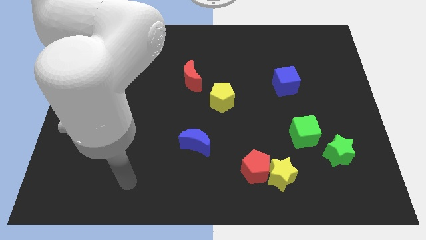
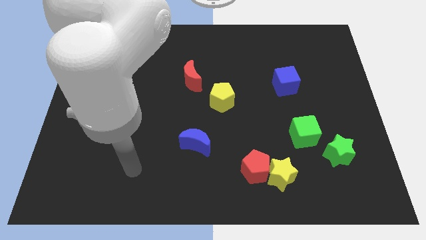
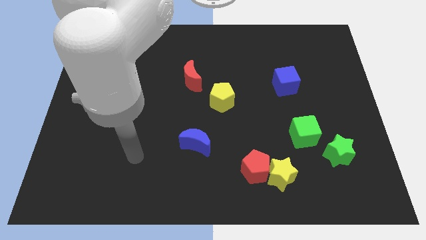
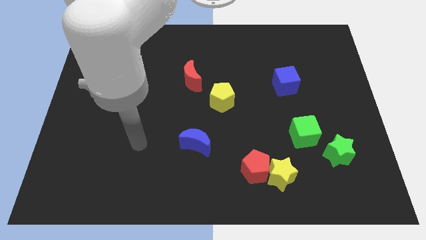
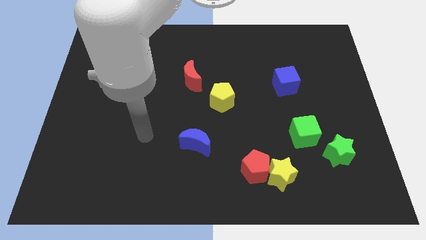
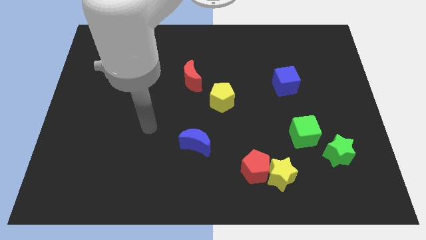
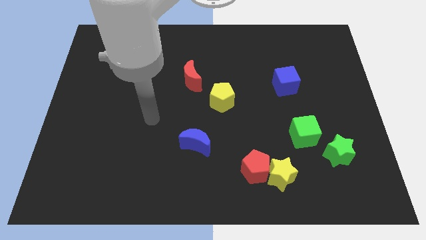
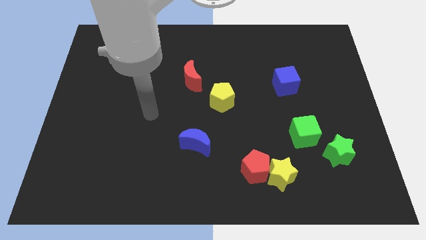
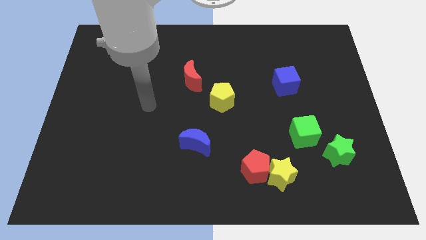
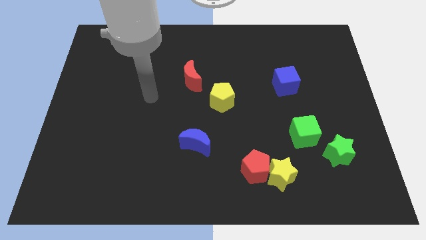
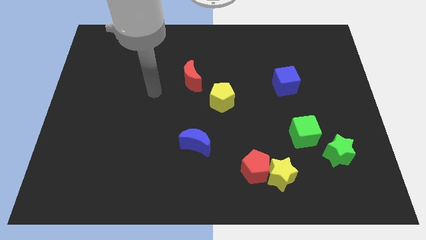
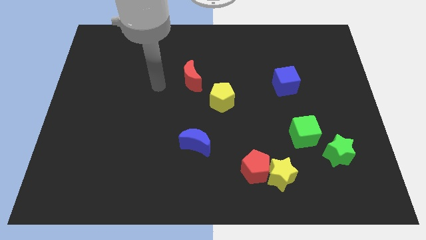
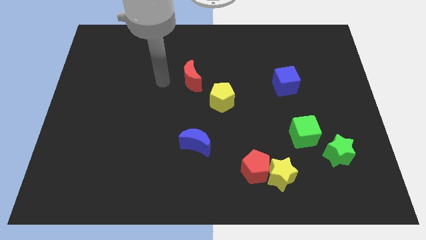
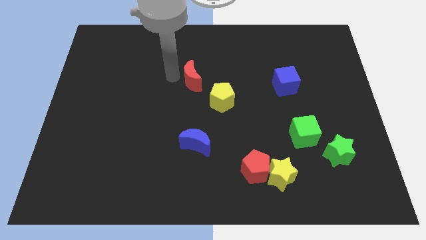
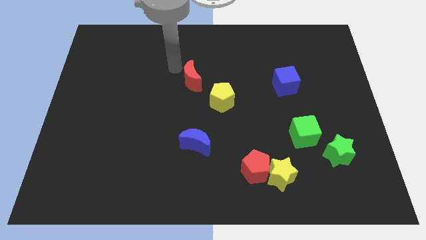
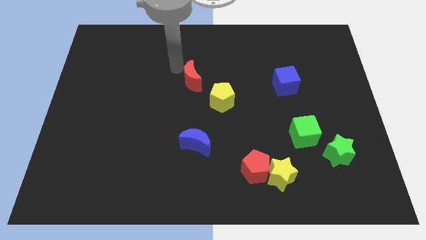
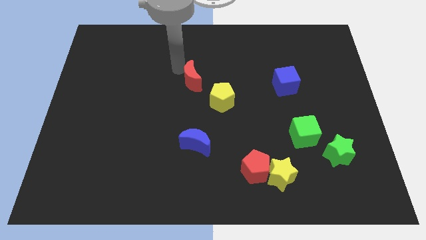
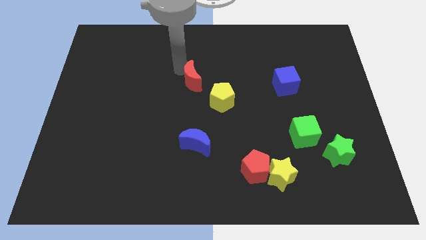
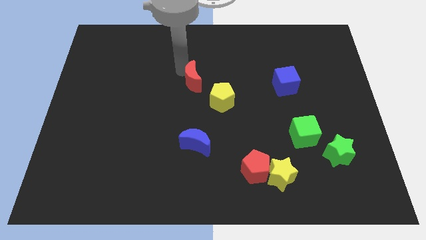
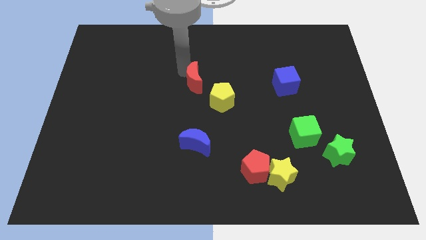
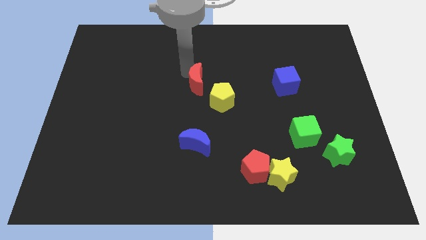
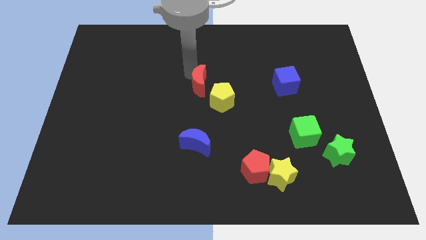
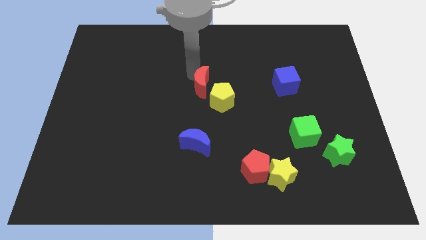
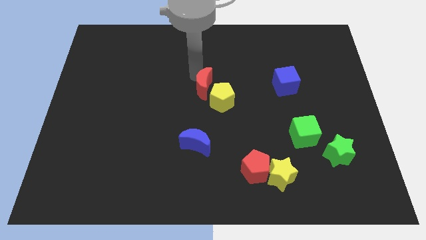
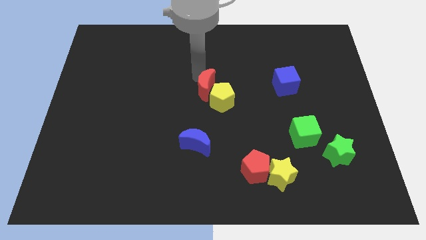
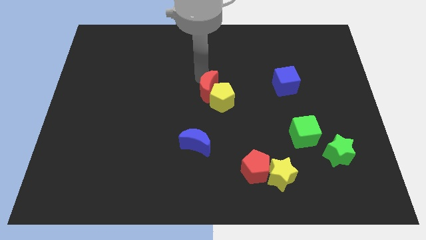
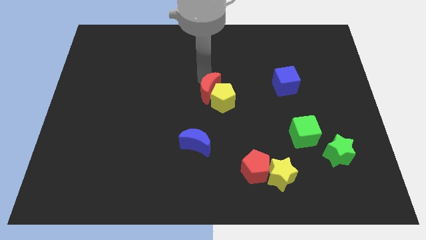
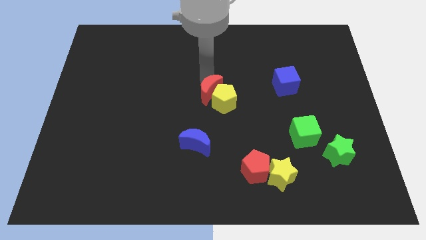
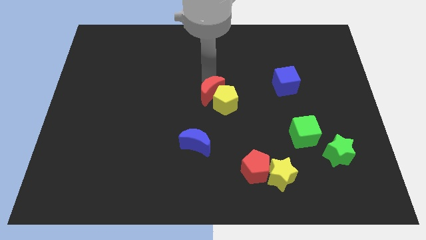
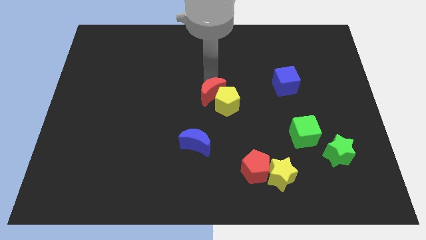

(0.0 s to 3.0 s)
push the red moon down and to the right diagonally somewhat

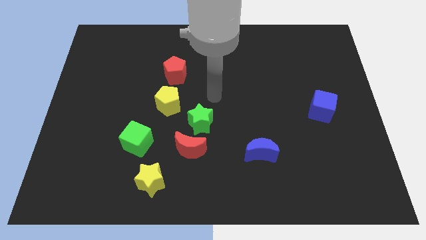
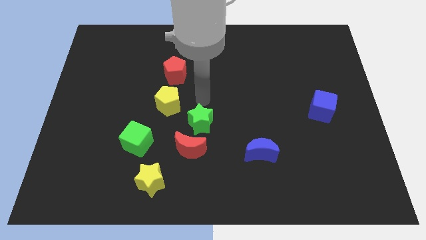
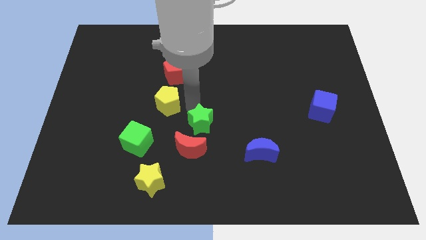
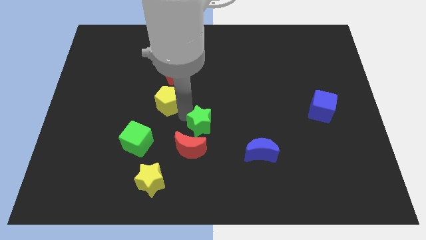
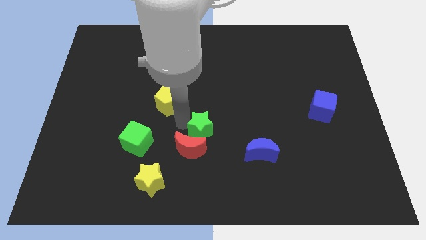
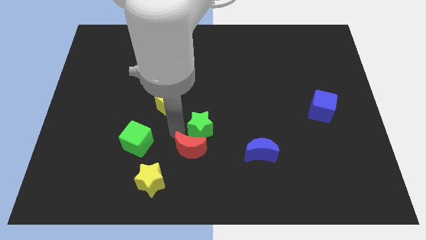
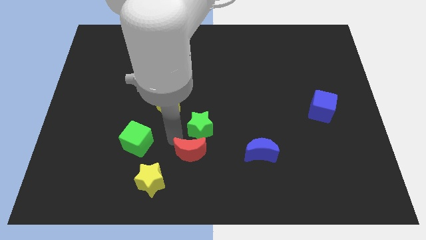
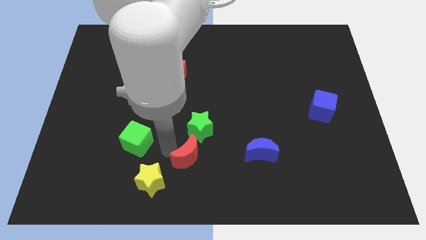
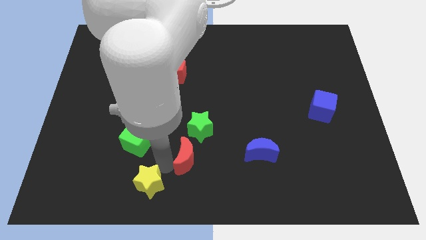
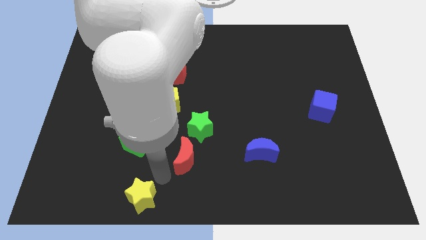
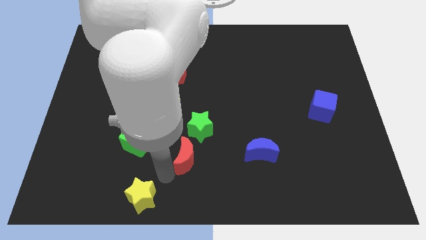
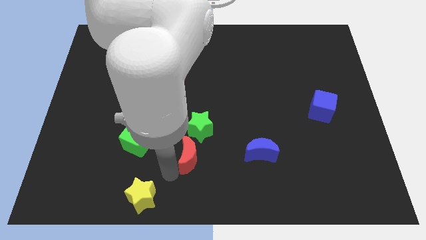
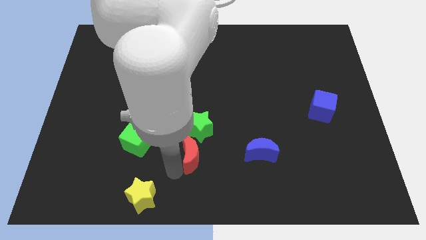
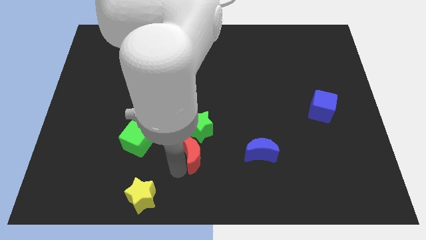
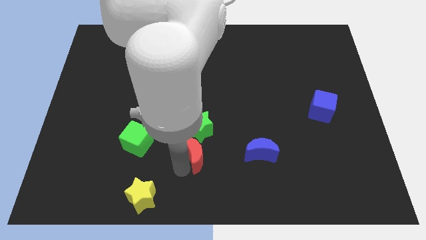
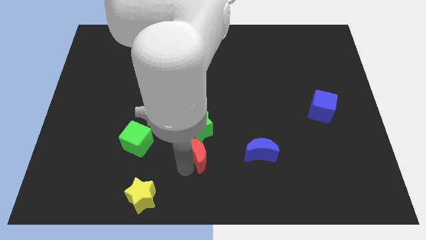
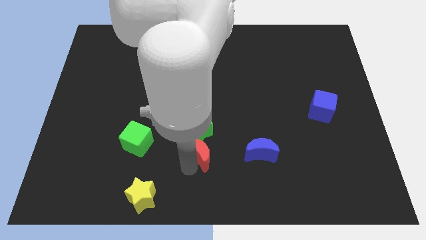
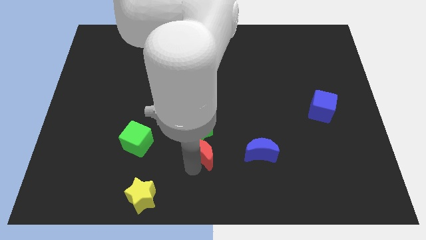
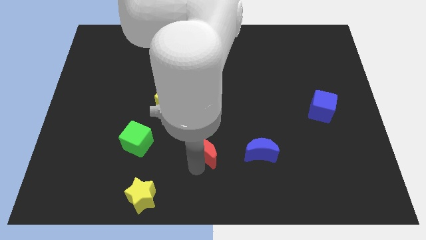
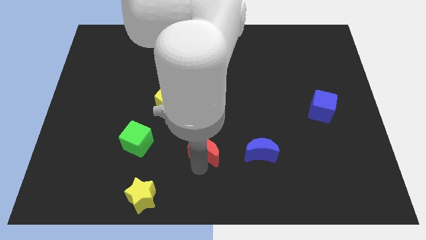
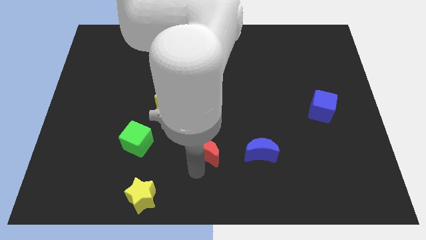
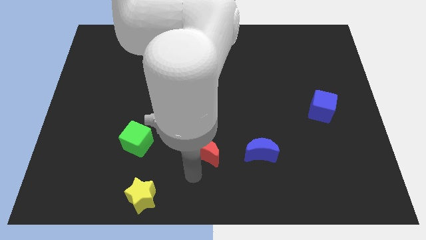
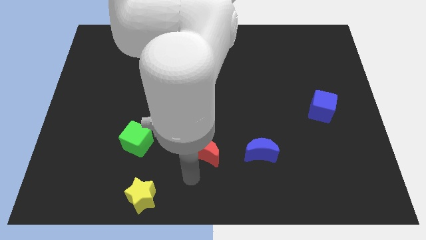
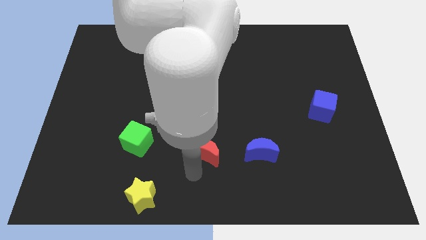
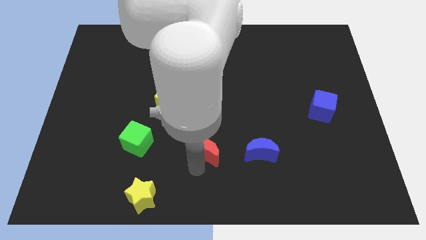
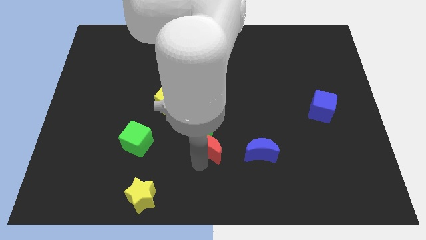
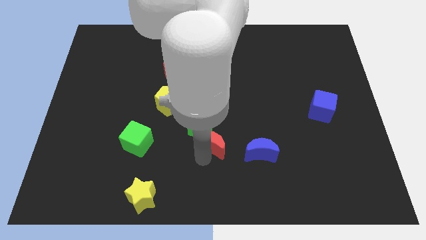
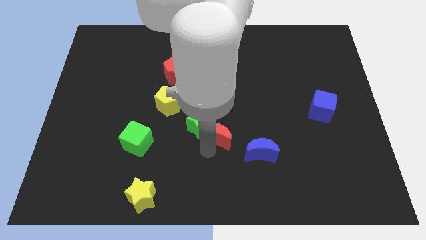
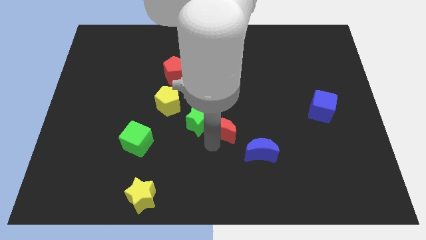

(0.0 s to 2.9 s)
slide the red moon up and then right a little

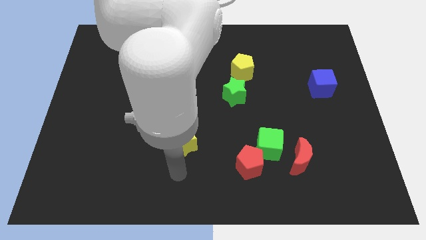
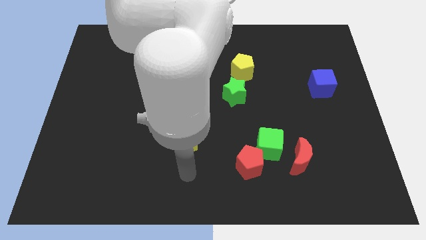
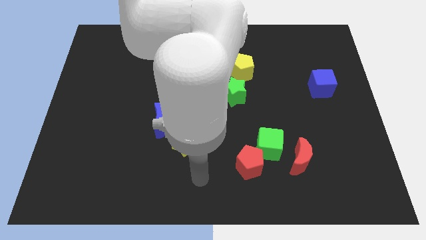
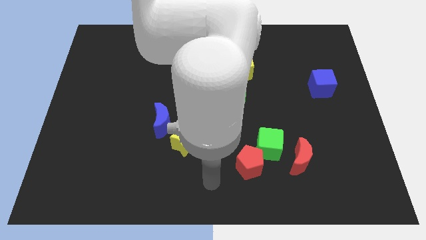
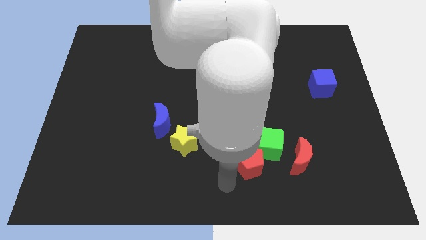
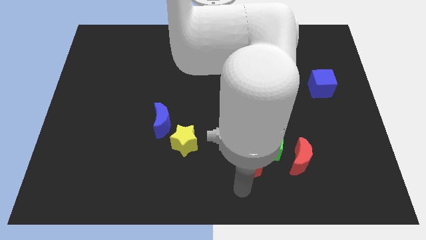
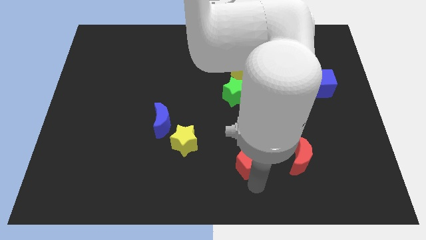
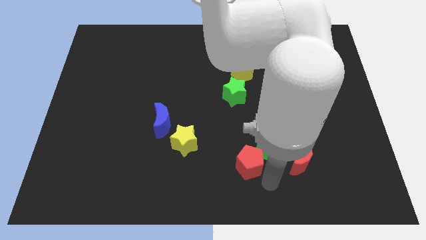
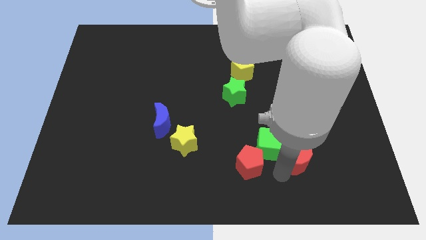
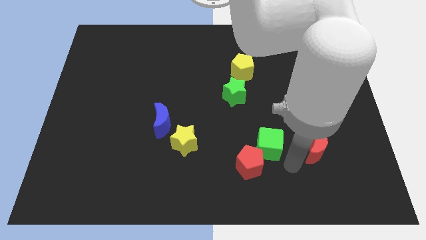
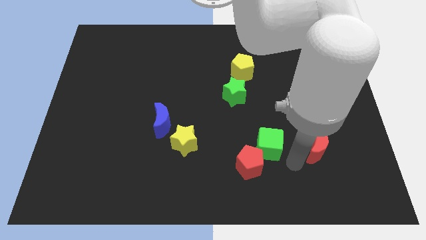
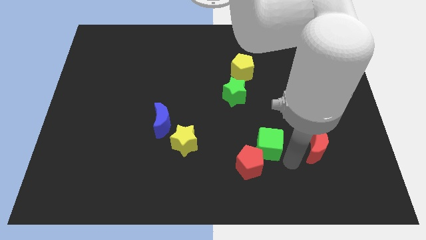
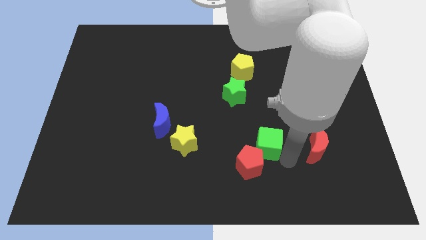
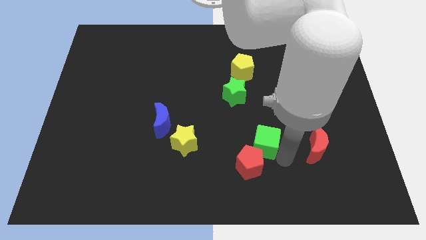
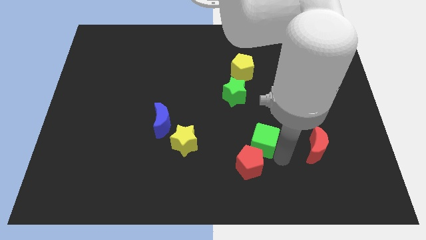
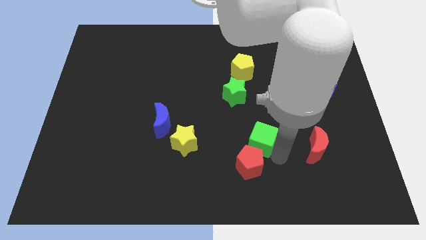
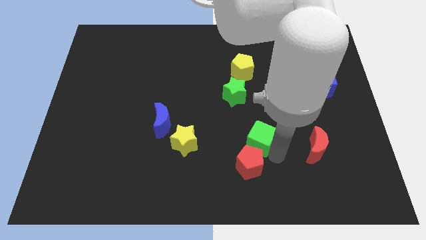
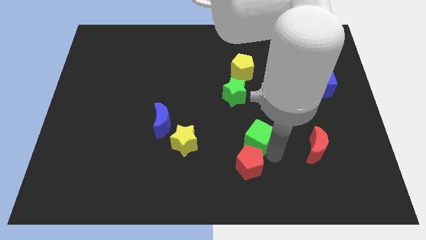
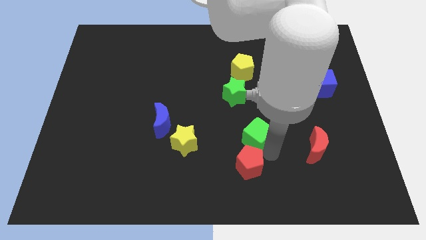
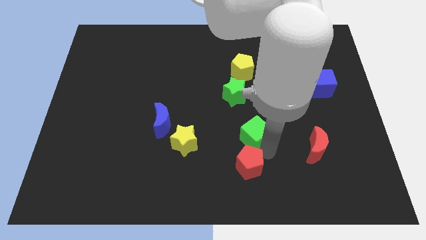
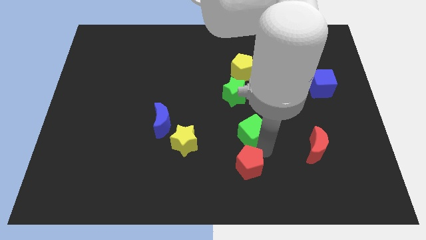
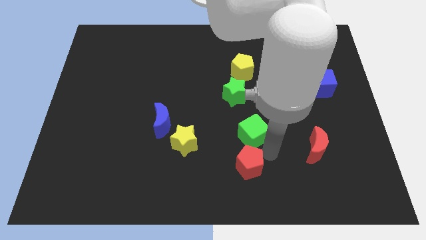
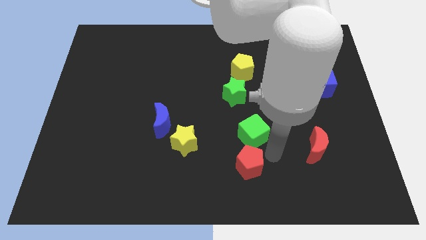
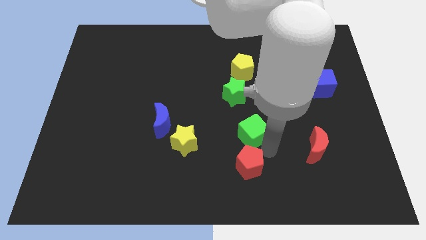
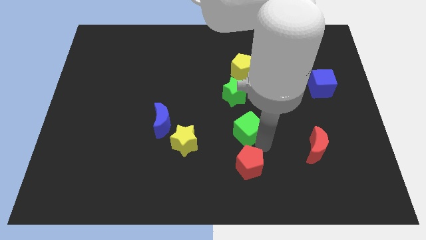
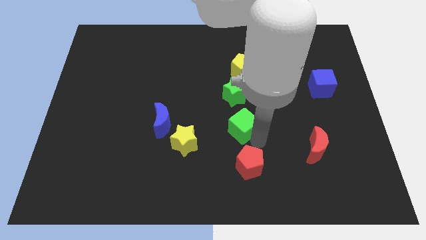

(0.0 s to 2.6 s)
slightly move the green cube up and then to the left
